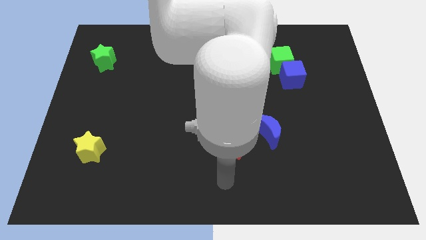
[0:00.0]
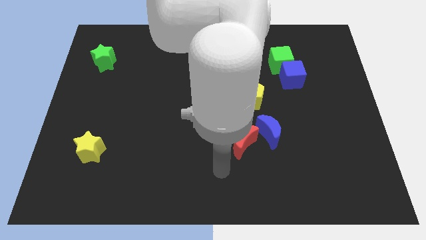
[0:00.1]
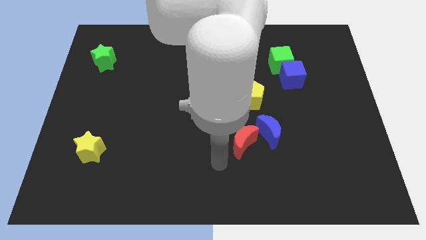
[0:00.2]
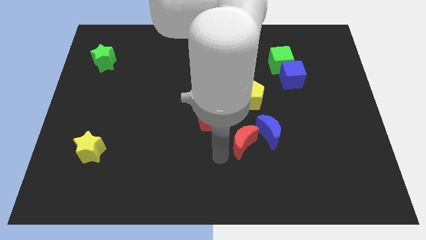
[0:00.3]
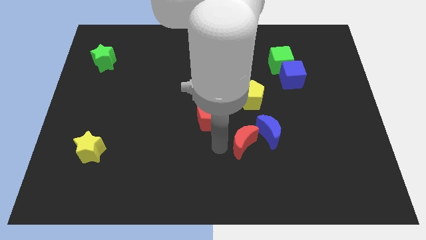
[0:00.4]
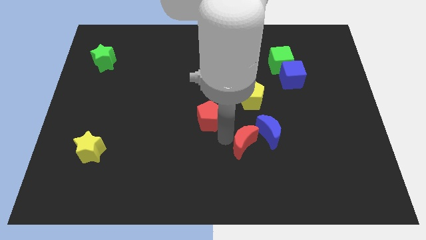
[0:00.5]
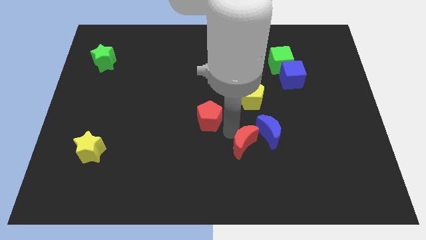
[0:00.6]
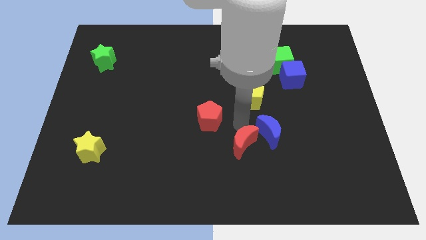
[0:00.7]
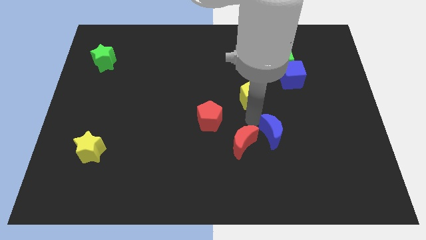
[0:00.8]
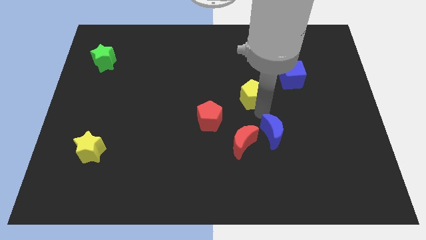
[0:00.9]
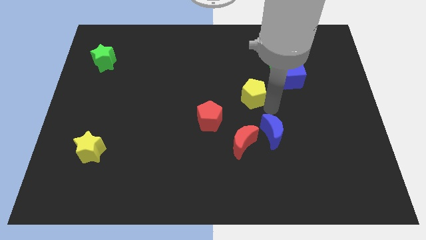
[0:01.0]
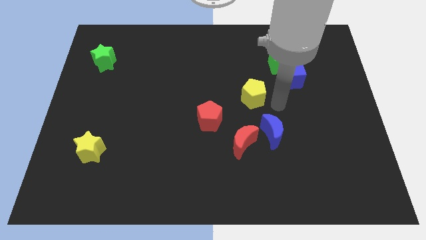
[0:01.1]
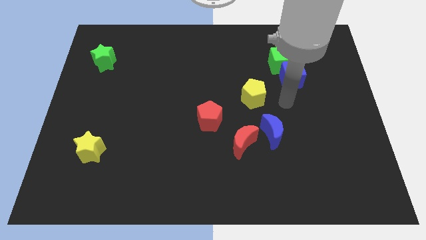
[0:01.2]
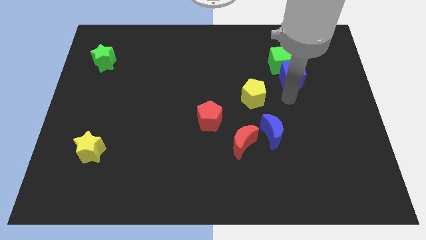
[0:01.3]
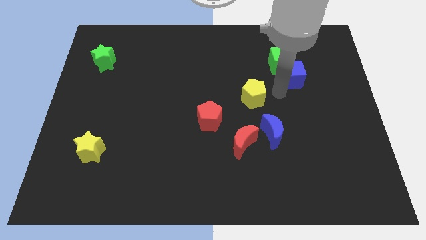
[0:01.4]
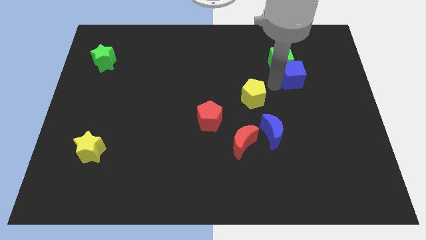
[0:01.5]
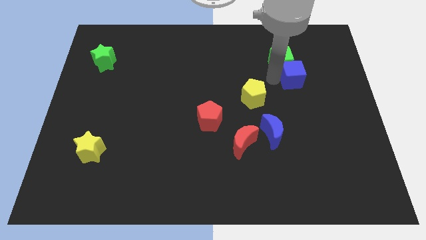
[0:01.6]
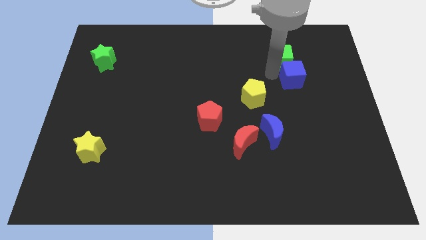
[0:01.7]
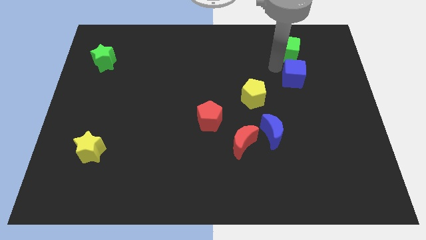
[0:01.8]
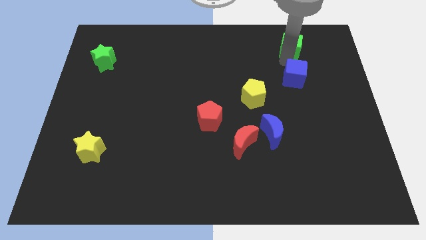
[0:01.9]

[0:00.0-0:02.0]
separate the blue cube from the green cube

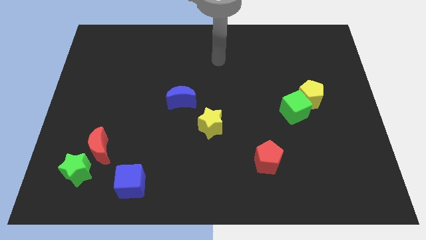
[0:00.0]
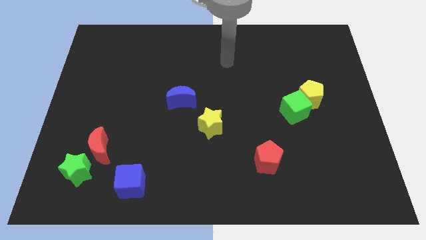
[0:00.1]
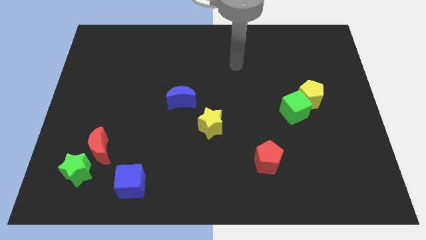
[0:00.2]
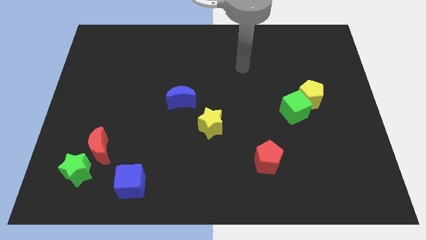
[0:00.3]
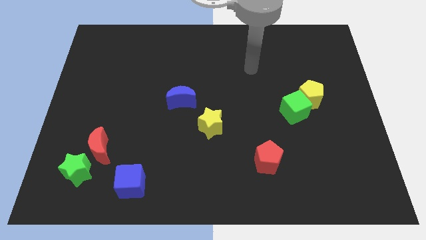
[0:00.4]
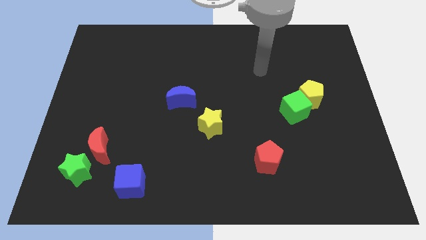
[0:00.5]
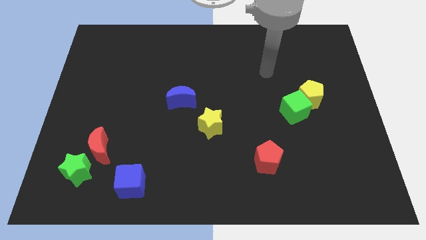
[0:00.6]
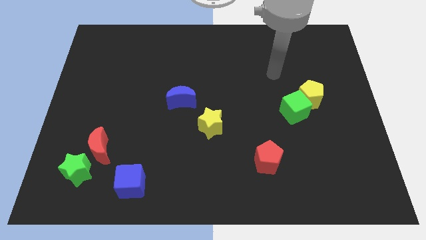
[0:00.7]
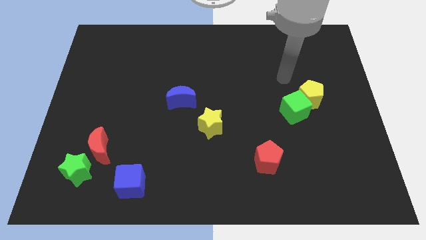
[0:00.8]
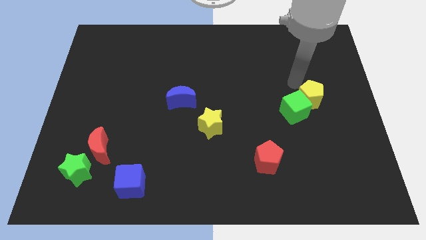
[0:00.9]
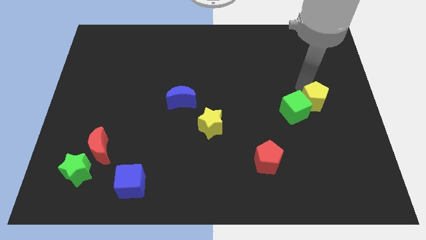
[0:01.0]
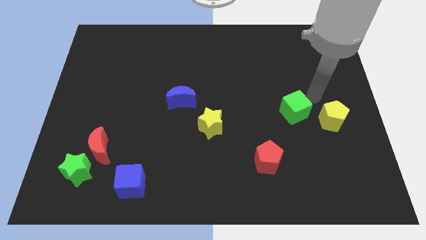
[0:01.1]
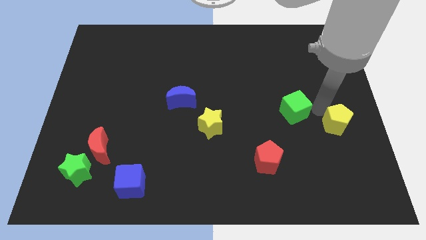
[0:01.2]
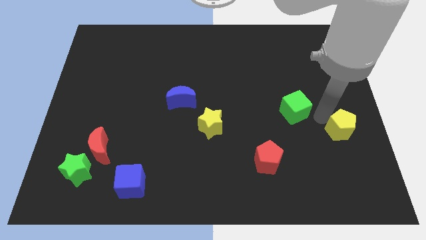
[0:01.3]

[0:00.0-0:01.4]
move the green cube away from the yellow pentagon

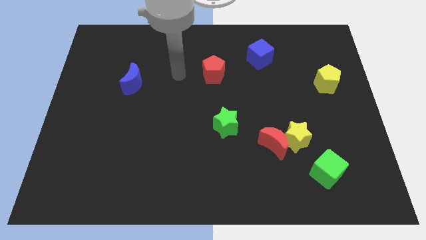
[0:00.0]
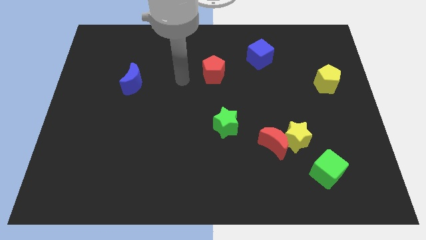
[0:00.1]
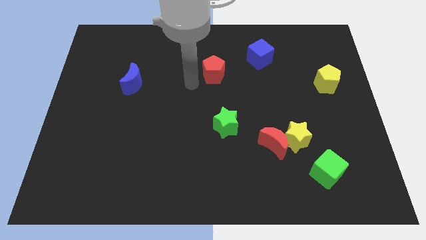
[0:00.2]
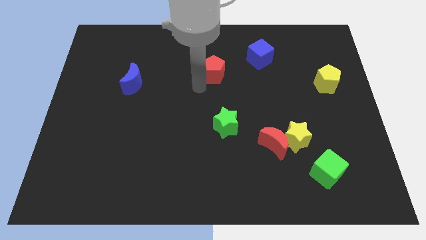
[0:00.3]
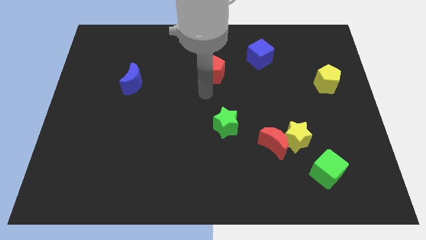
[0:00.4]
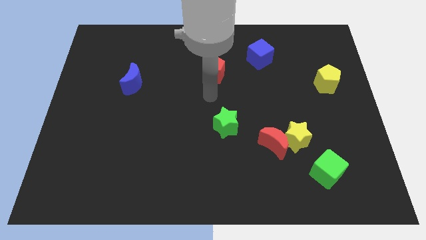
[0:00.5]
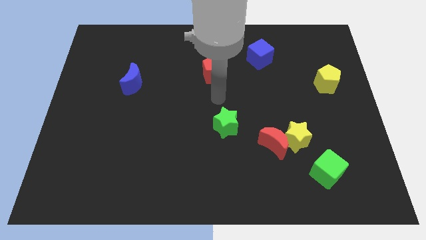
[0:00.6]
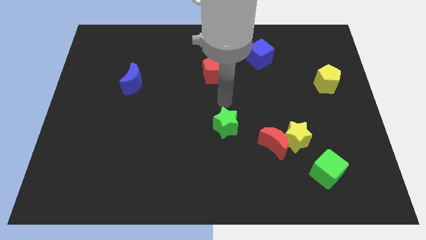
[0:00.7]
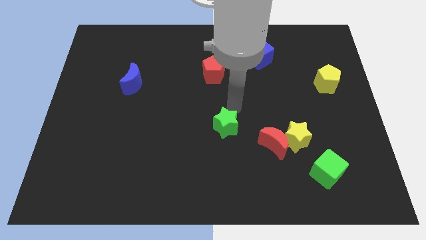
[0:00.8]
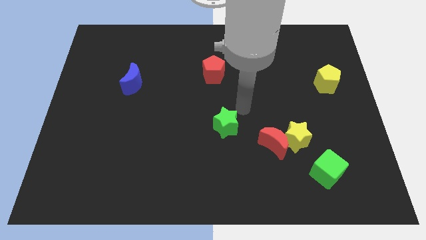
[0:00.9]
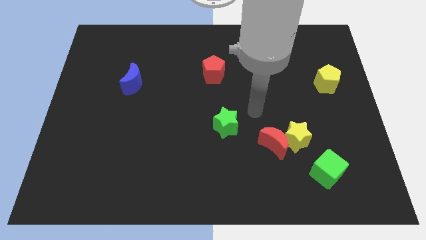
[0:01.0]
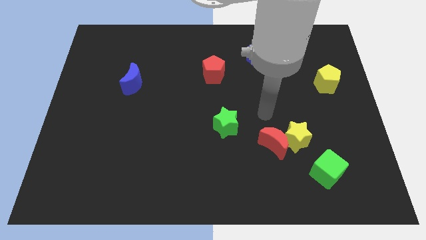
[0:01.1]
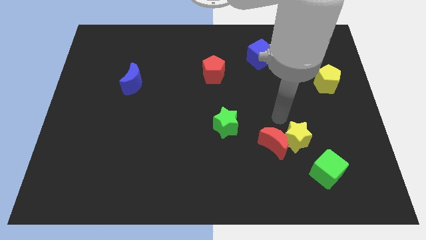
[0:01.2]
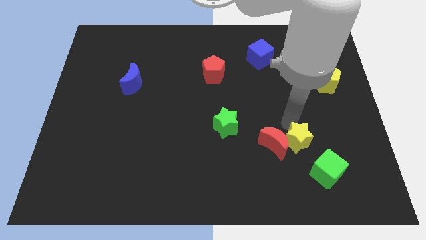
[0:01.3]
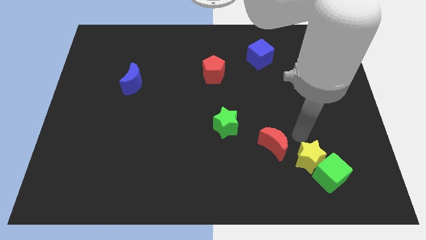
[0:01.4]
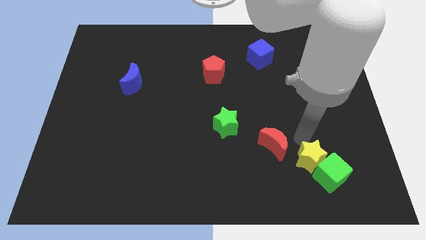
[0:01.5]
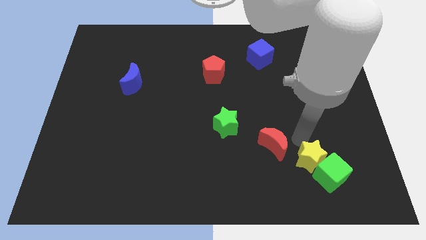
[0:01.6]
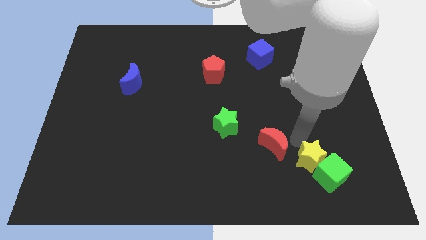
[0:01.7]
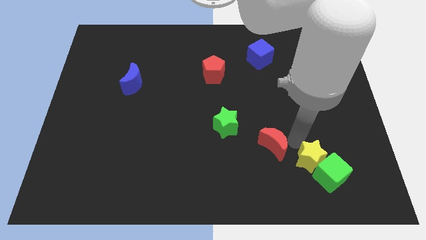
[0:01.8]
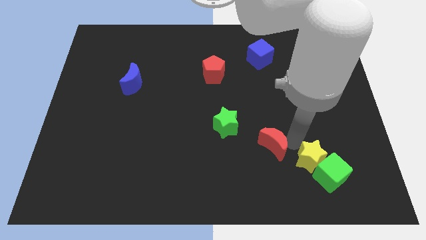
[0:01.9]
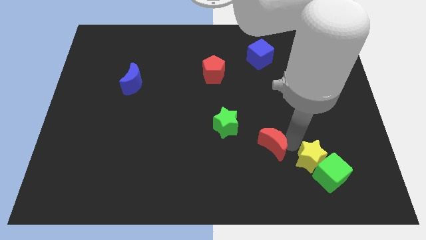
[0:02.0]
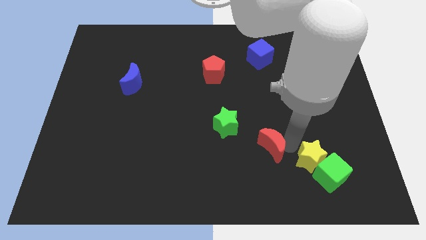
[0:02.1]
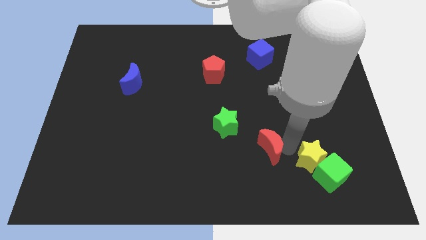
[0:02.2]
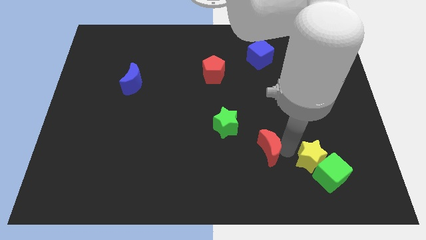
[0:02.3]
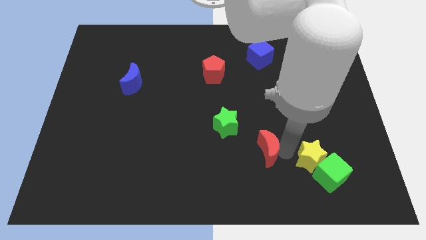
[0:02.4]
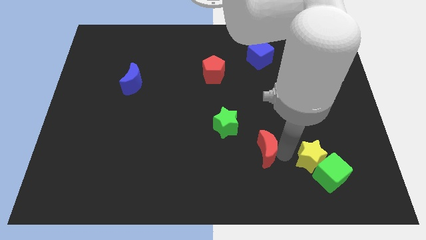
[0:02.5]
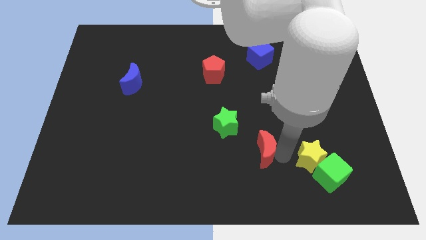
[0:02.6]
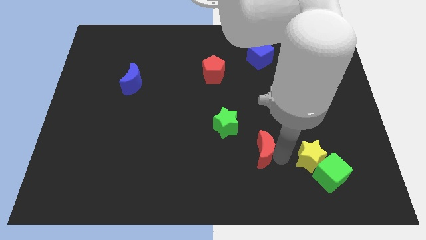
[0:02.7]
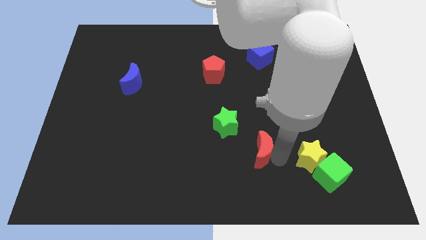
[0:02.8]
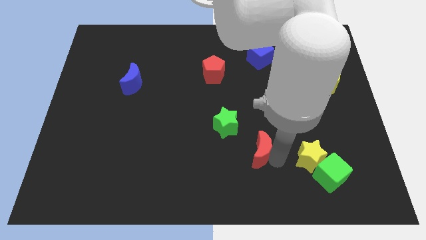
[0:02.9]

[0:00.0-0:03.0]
separate the red moon from the yellow star

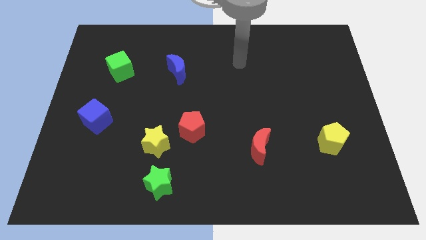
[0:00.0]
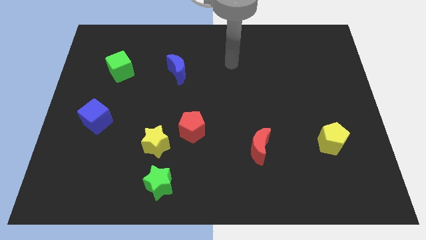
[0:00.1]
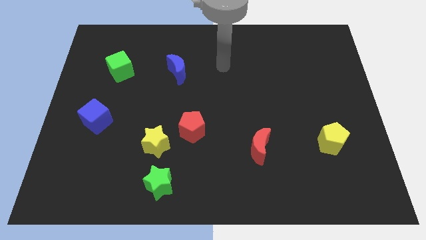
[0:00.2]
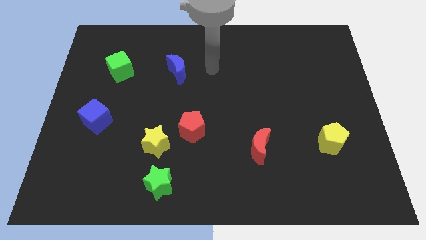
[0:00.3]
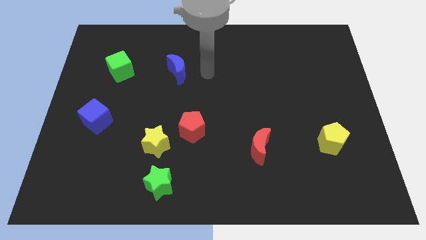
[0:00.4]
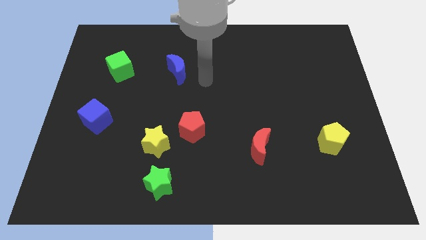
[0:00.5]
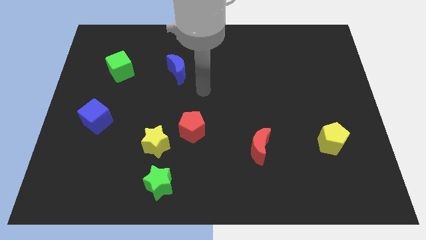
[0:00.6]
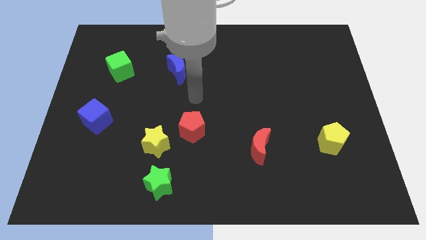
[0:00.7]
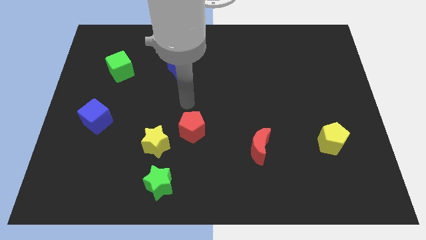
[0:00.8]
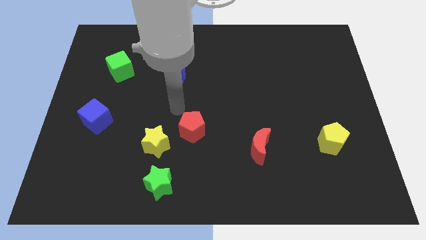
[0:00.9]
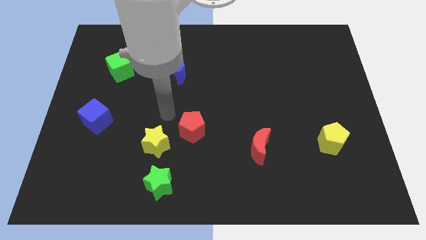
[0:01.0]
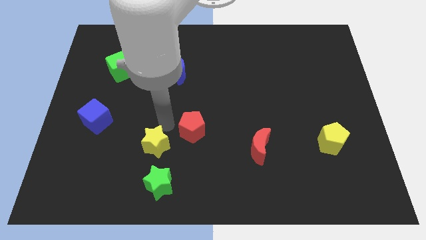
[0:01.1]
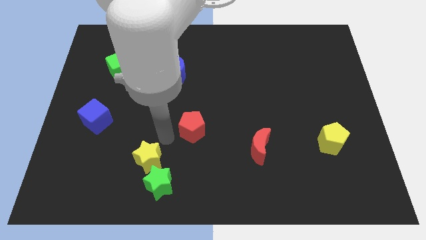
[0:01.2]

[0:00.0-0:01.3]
separate the red pentagon from the yellow star

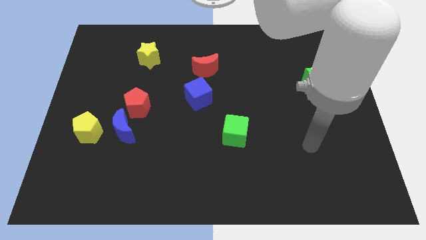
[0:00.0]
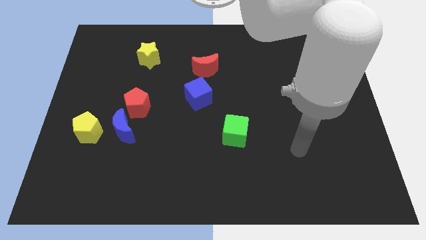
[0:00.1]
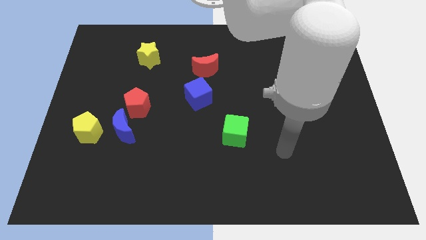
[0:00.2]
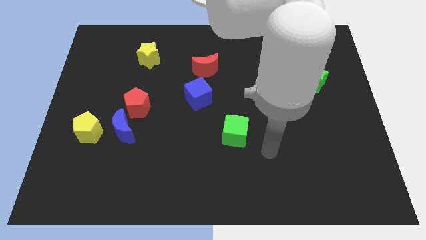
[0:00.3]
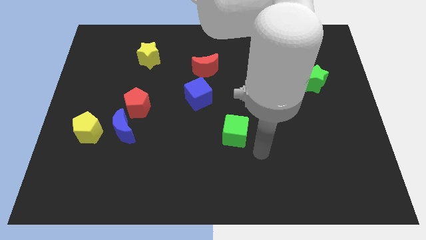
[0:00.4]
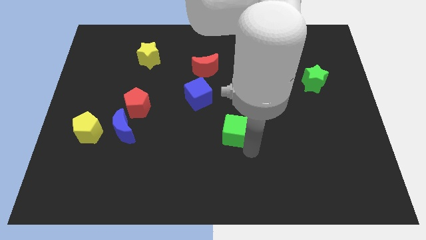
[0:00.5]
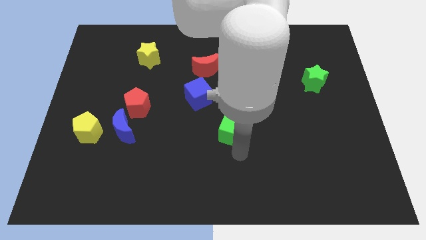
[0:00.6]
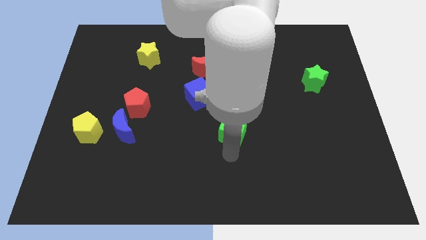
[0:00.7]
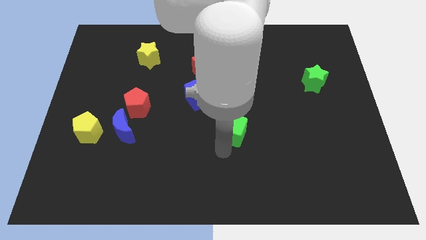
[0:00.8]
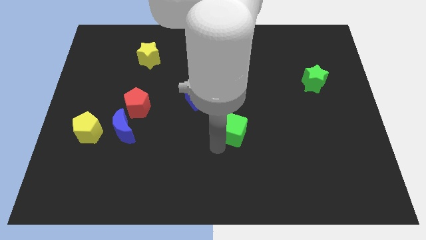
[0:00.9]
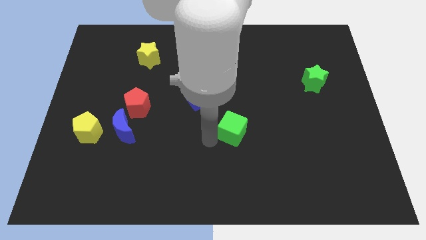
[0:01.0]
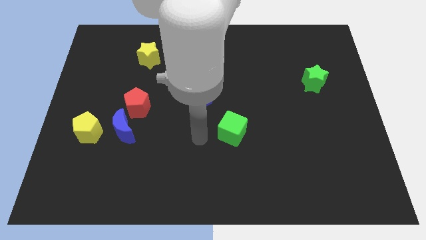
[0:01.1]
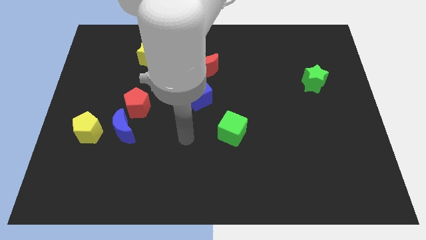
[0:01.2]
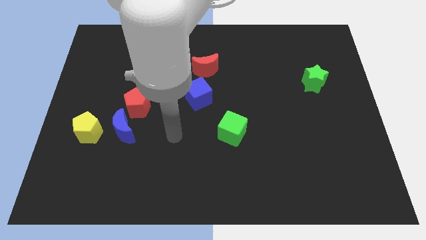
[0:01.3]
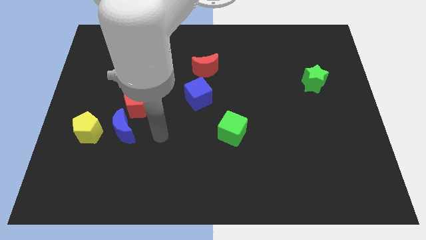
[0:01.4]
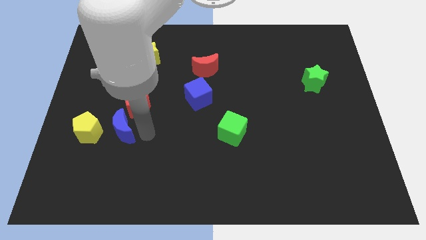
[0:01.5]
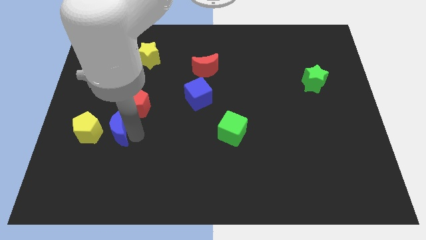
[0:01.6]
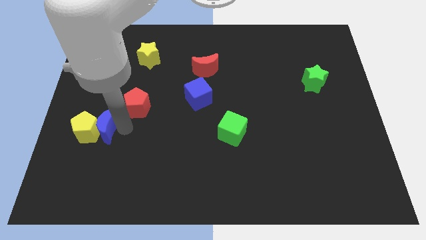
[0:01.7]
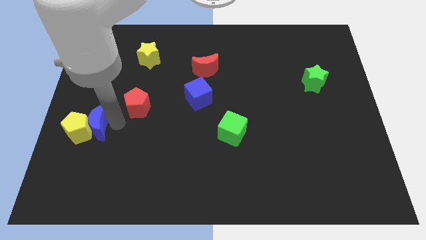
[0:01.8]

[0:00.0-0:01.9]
move the red pentagon away from the blue moon
